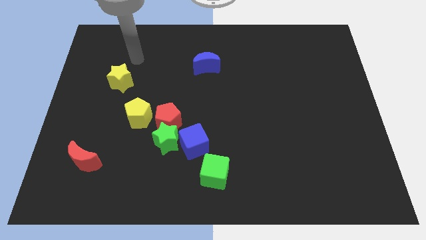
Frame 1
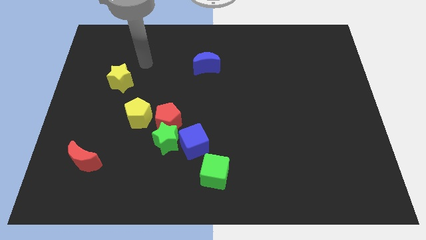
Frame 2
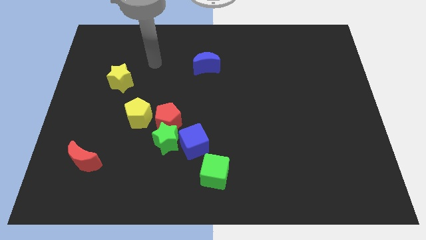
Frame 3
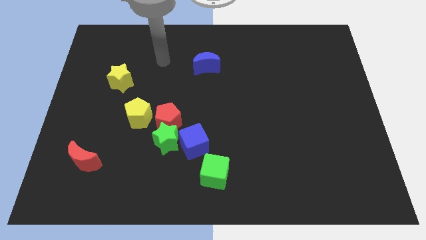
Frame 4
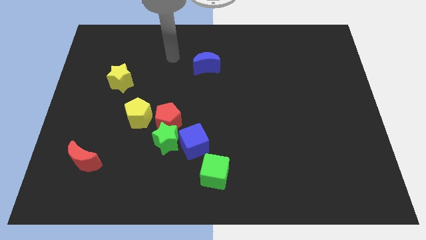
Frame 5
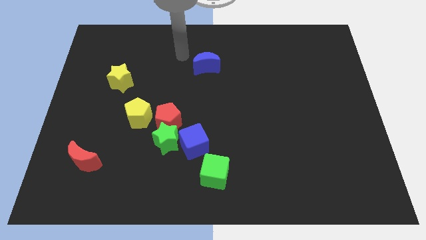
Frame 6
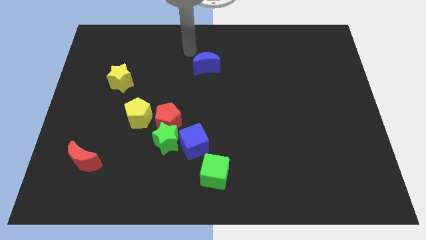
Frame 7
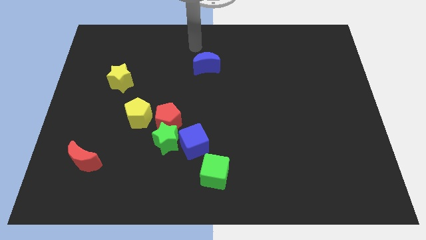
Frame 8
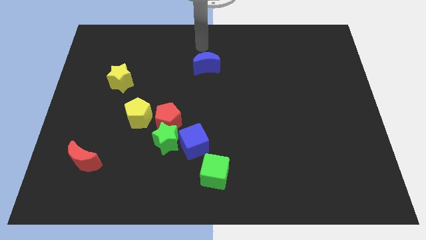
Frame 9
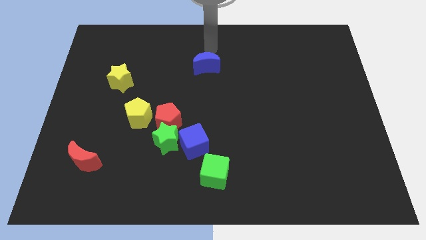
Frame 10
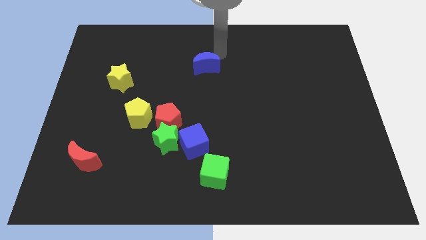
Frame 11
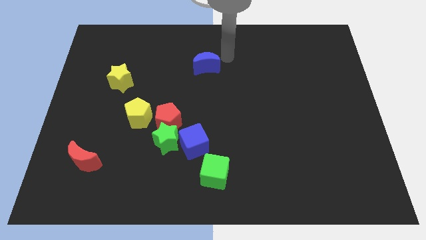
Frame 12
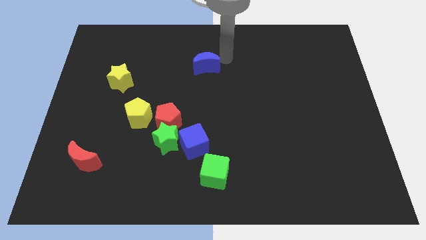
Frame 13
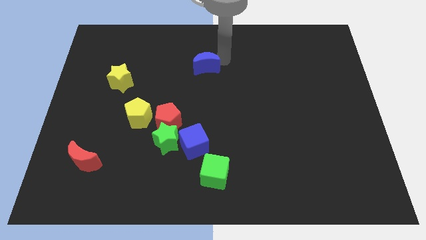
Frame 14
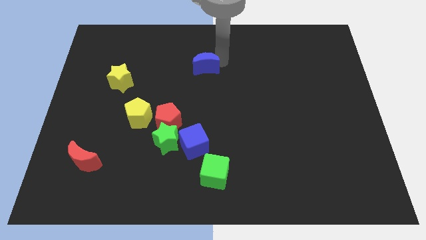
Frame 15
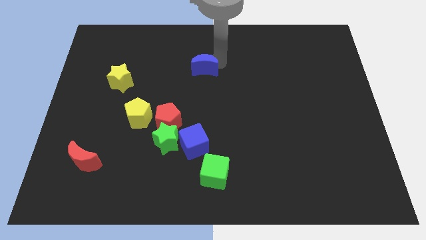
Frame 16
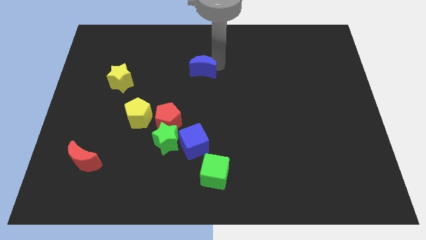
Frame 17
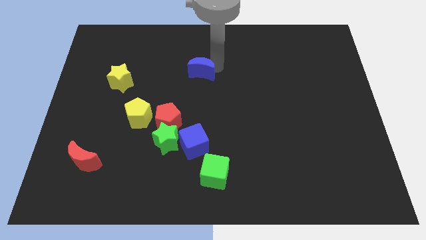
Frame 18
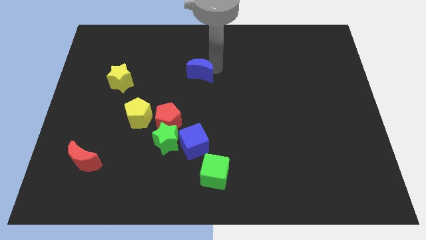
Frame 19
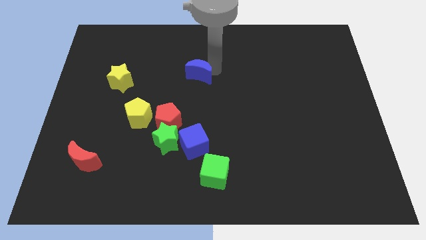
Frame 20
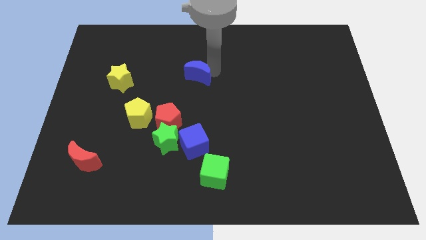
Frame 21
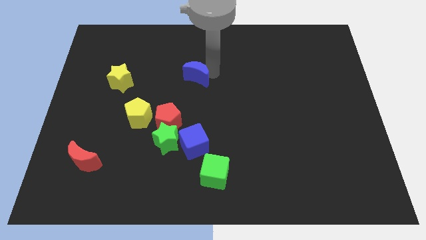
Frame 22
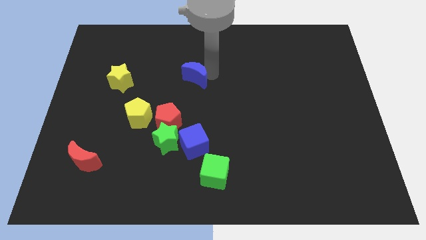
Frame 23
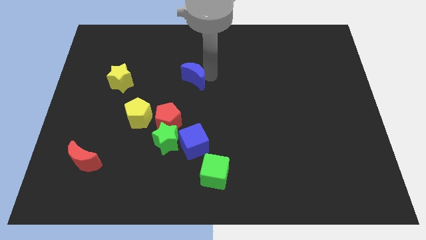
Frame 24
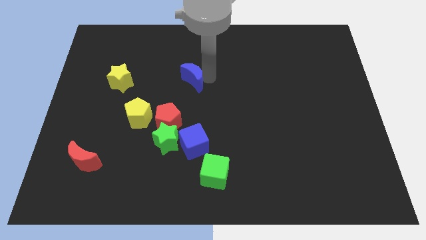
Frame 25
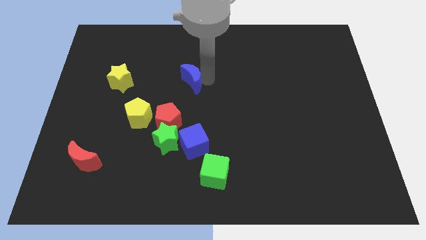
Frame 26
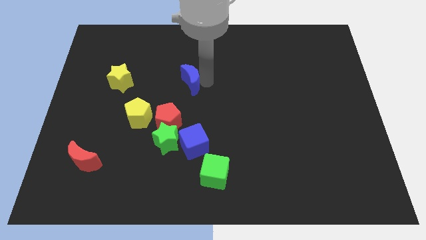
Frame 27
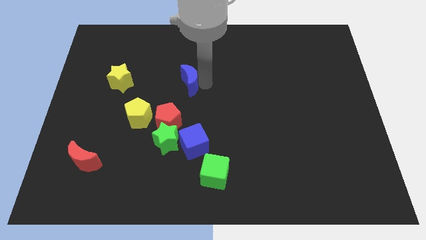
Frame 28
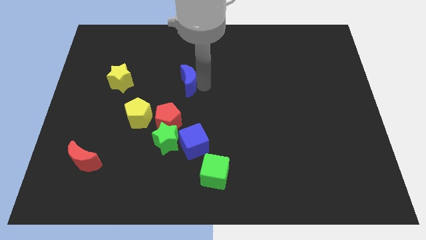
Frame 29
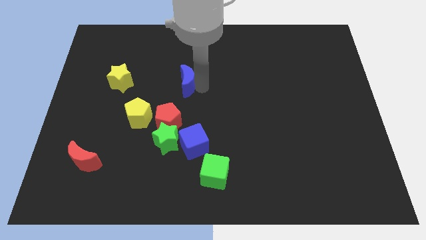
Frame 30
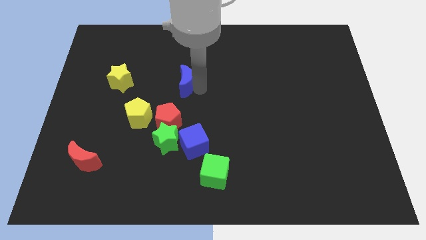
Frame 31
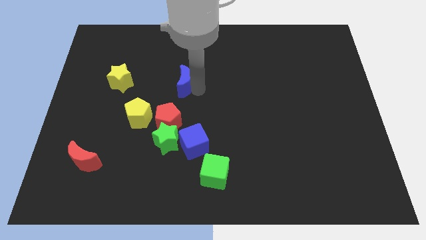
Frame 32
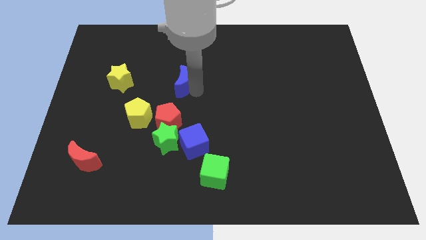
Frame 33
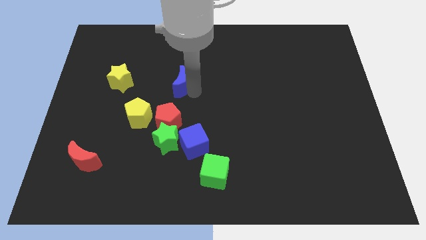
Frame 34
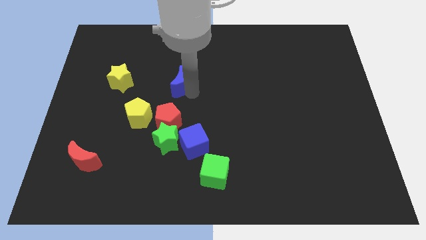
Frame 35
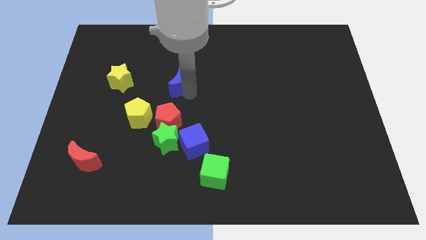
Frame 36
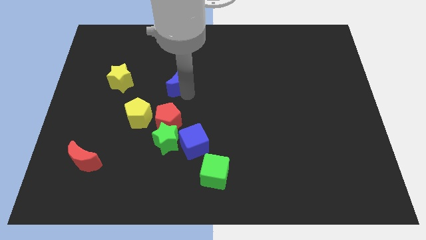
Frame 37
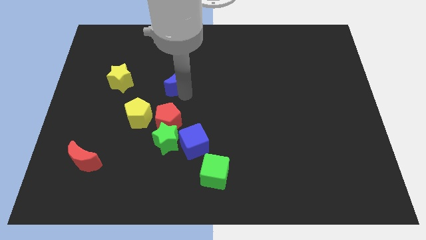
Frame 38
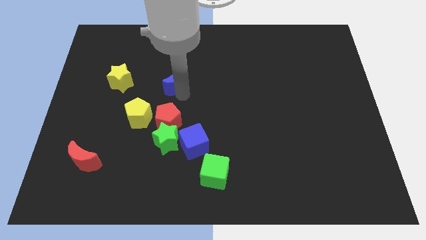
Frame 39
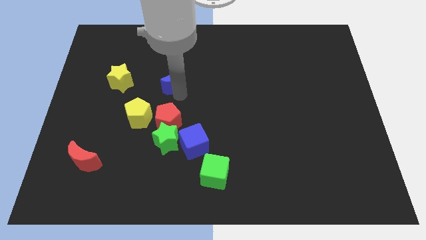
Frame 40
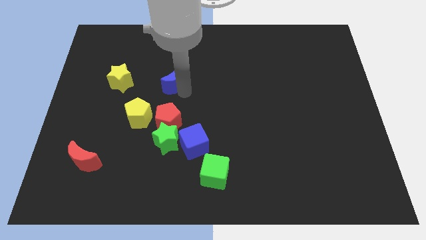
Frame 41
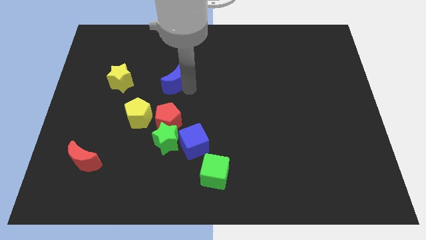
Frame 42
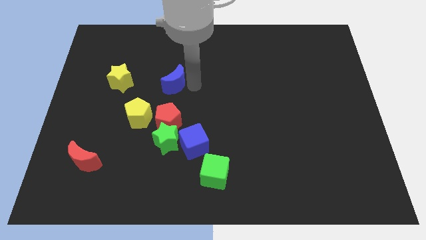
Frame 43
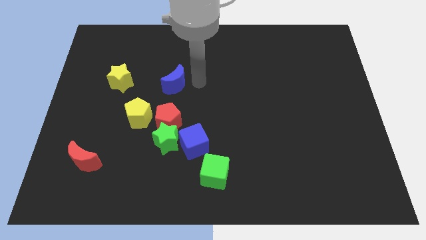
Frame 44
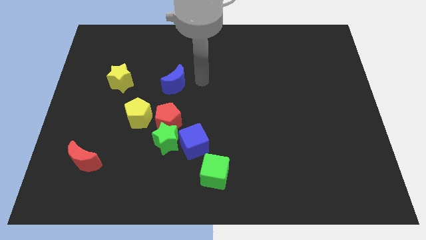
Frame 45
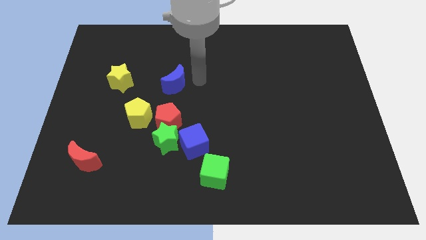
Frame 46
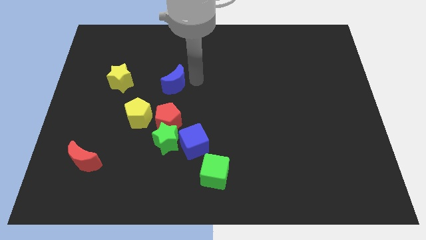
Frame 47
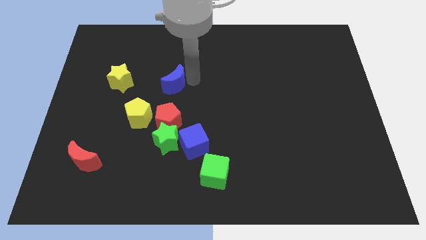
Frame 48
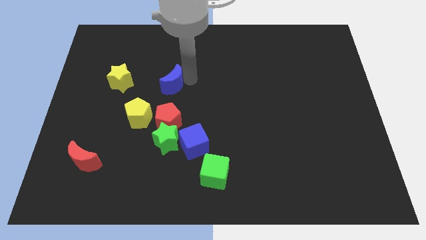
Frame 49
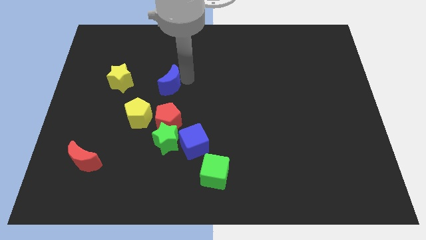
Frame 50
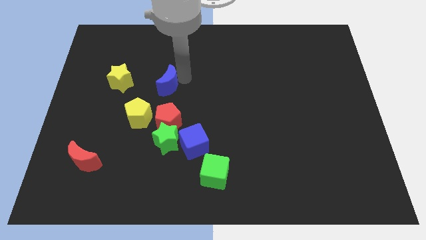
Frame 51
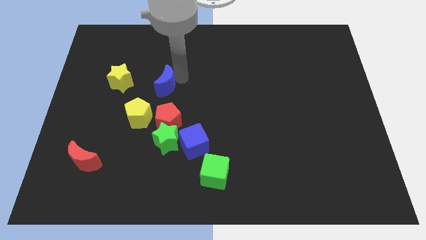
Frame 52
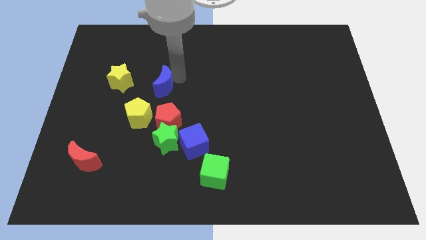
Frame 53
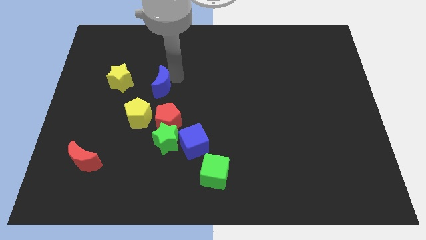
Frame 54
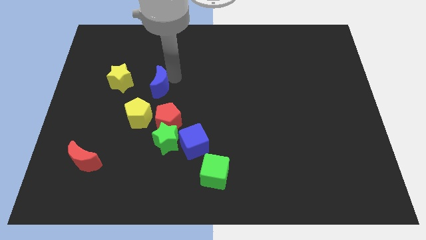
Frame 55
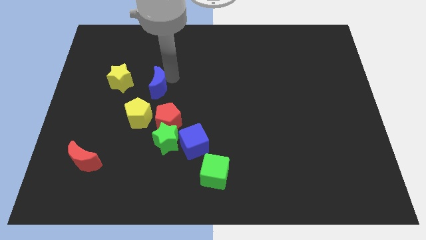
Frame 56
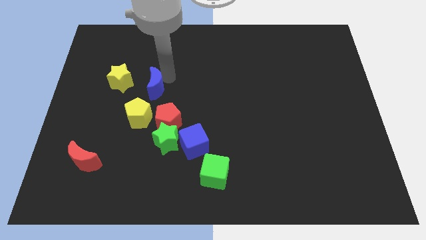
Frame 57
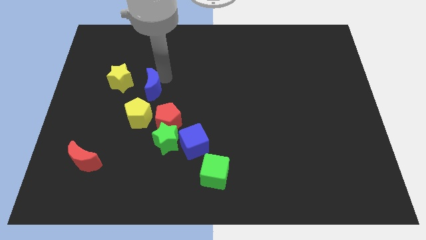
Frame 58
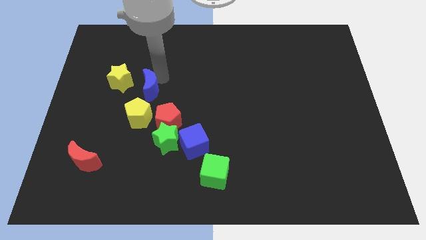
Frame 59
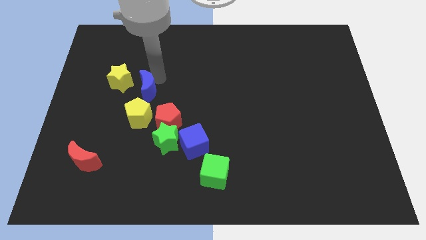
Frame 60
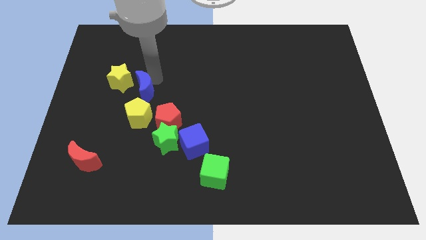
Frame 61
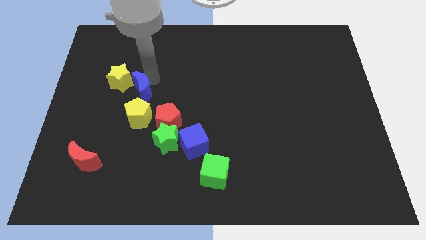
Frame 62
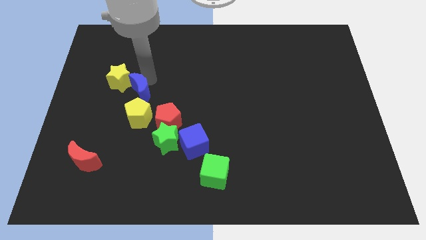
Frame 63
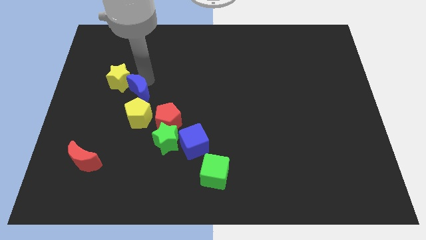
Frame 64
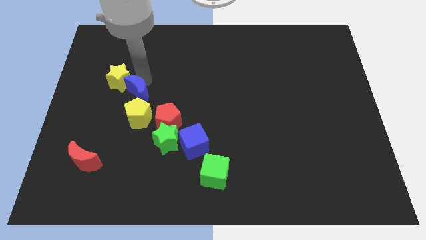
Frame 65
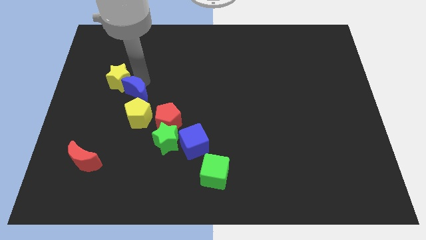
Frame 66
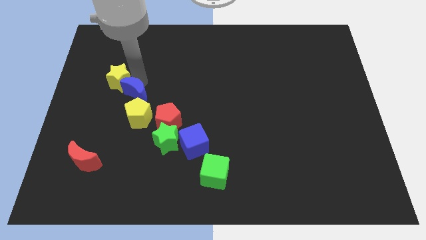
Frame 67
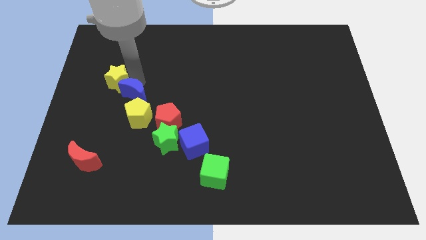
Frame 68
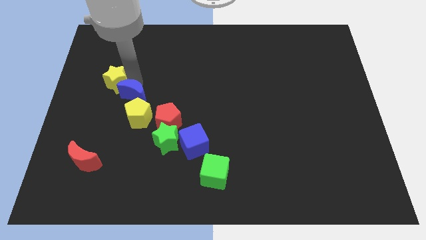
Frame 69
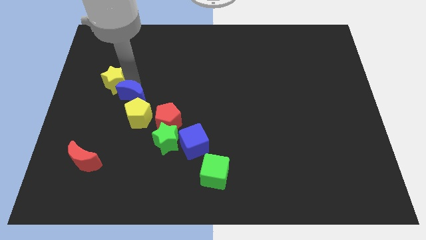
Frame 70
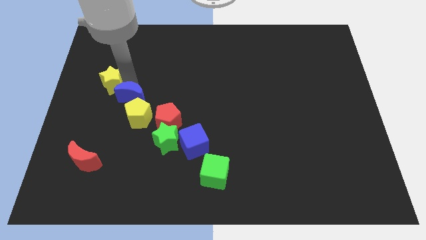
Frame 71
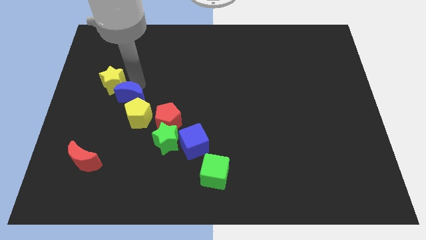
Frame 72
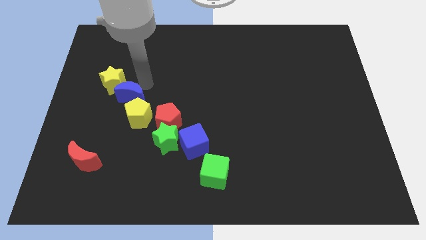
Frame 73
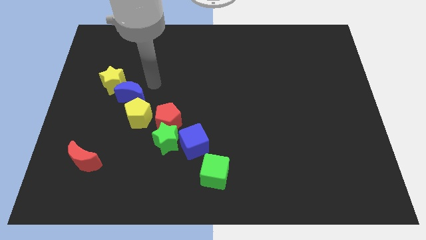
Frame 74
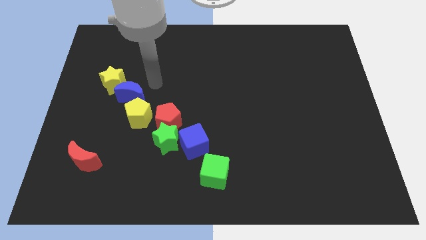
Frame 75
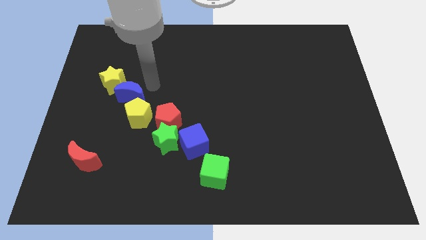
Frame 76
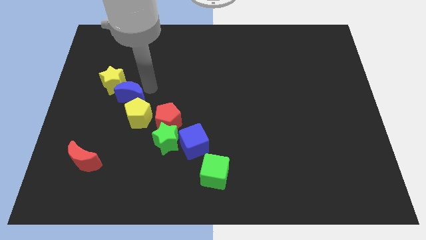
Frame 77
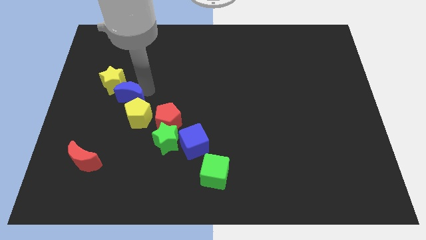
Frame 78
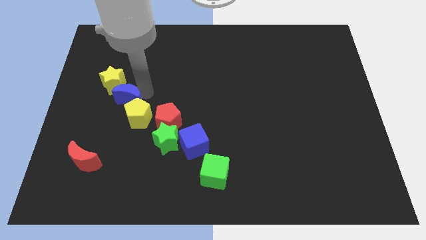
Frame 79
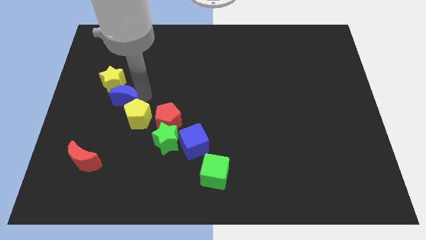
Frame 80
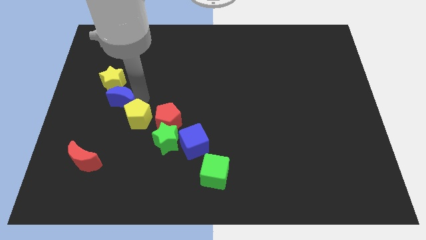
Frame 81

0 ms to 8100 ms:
slide the blue moon just left of the yellow pentagon
